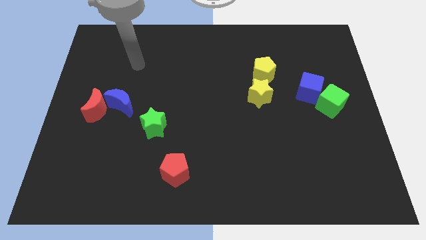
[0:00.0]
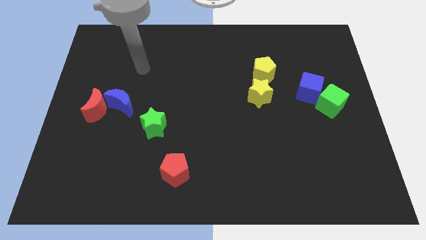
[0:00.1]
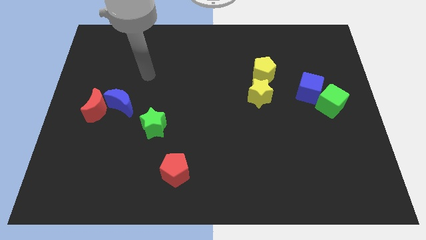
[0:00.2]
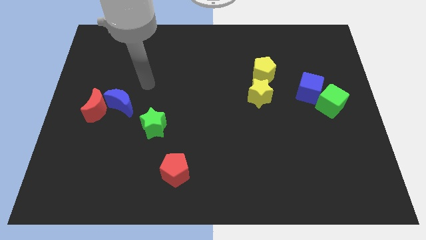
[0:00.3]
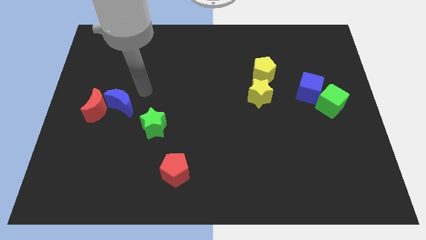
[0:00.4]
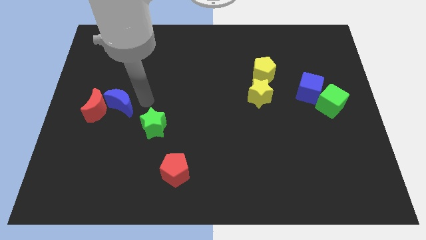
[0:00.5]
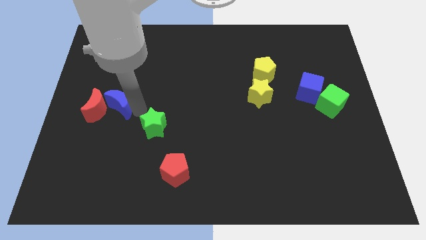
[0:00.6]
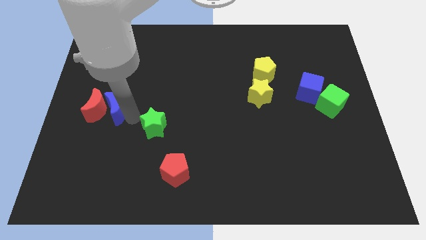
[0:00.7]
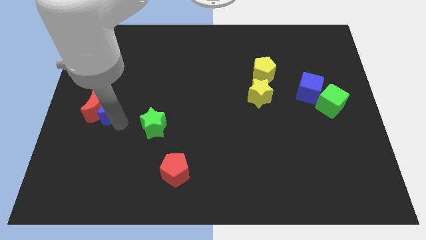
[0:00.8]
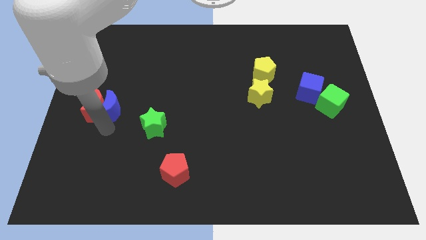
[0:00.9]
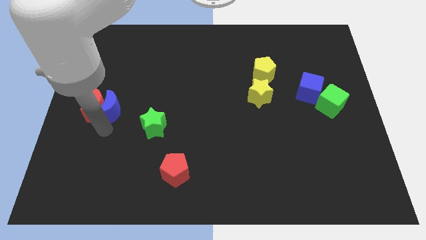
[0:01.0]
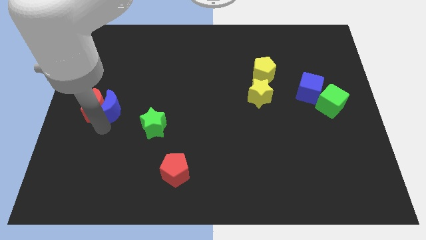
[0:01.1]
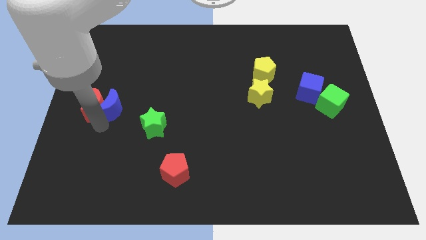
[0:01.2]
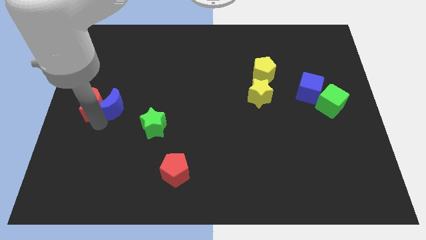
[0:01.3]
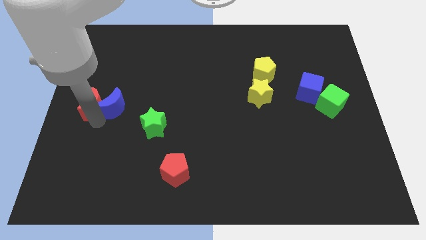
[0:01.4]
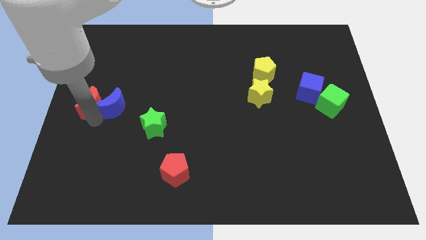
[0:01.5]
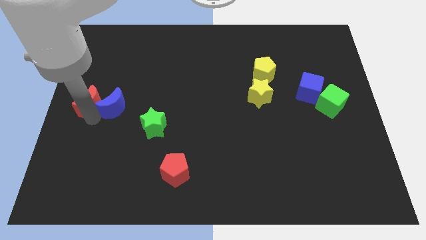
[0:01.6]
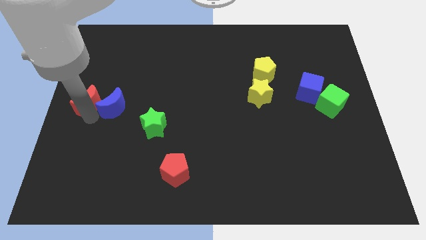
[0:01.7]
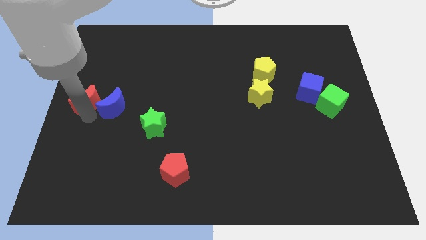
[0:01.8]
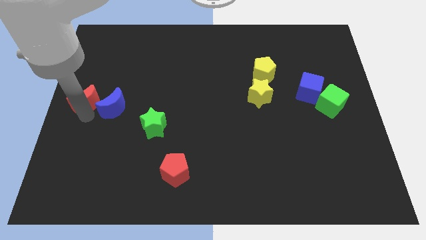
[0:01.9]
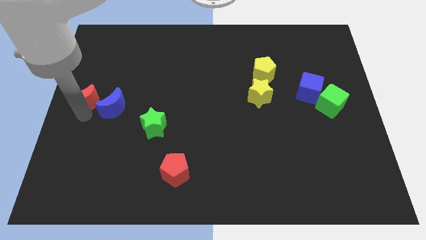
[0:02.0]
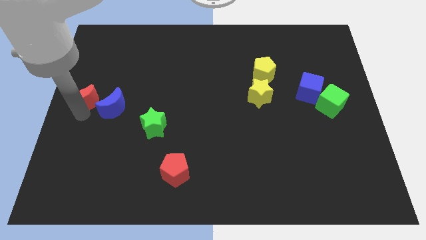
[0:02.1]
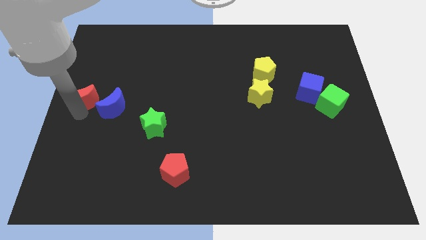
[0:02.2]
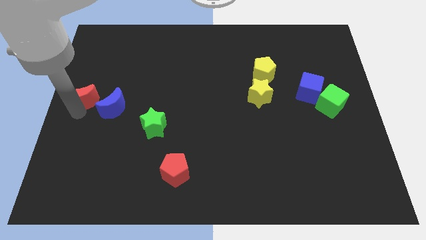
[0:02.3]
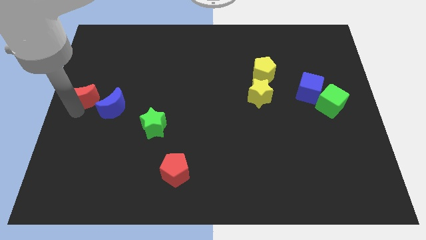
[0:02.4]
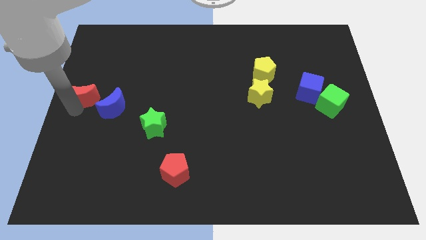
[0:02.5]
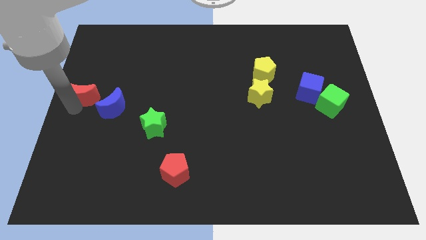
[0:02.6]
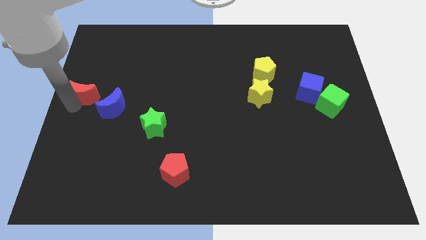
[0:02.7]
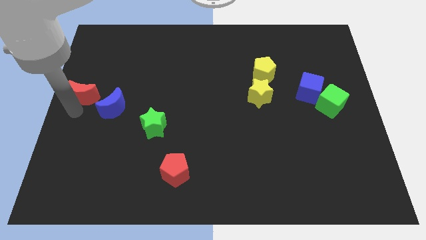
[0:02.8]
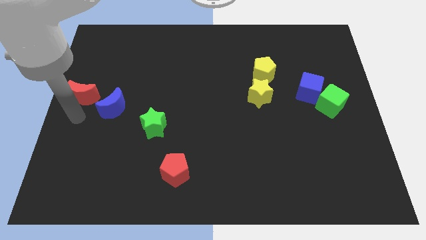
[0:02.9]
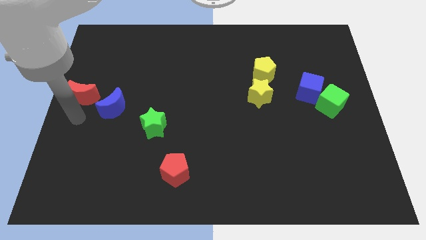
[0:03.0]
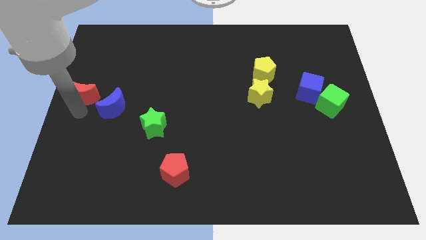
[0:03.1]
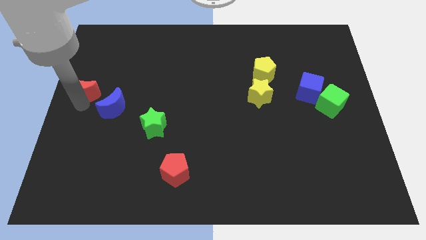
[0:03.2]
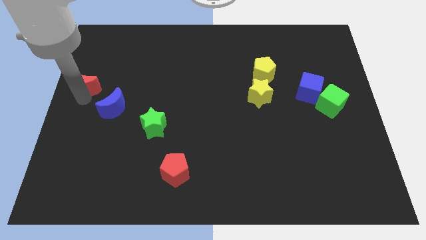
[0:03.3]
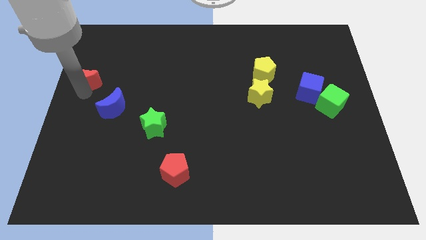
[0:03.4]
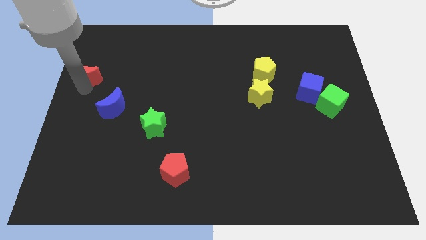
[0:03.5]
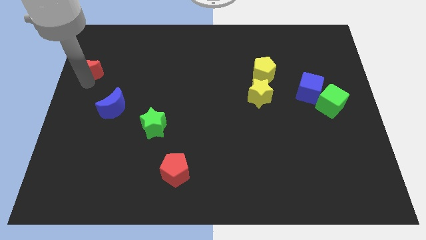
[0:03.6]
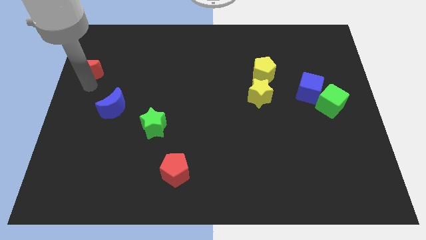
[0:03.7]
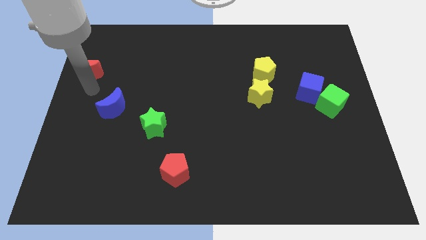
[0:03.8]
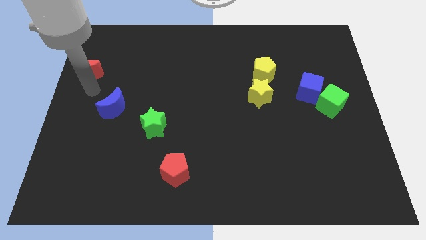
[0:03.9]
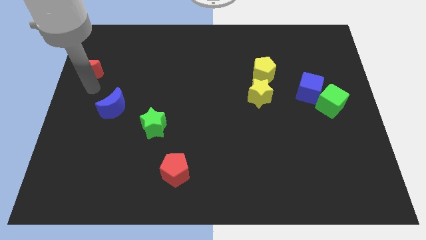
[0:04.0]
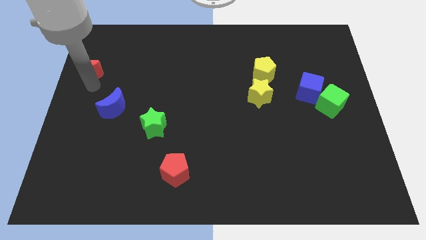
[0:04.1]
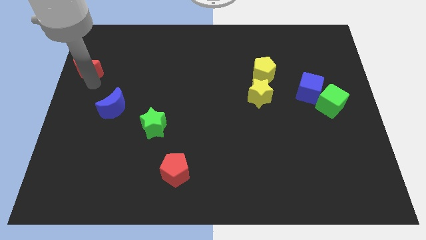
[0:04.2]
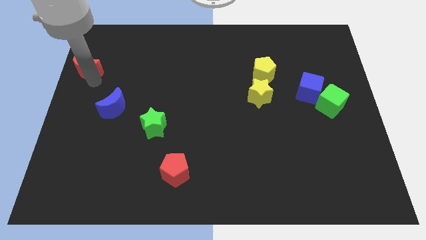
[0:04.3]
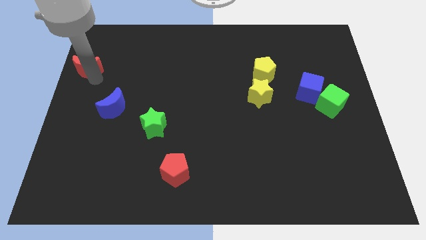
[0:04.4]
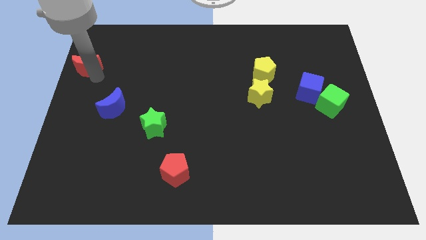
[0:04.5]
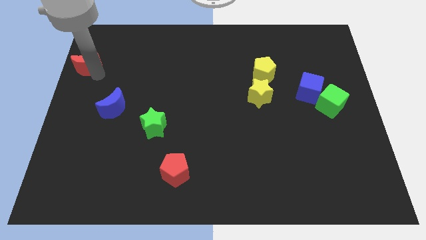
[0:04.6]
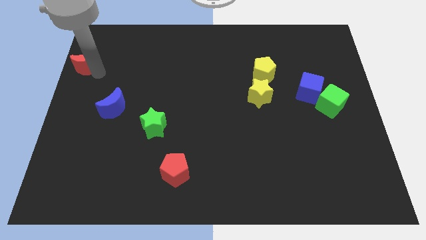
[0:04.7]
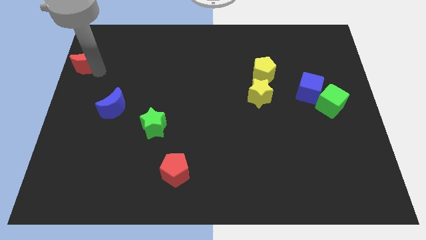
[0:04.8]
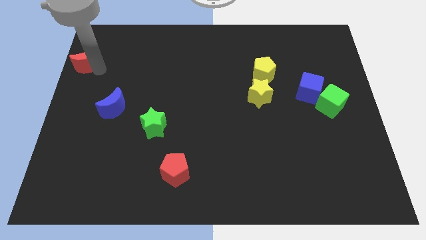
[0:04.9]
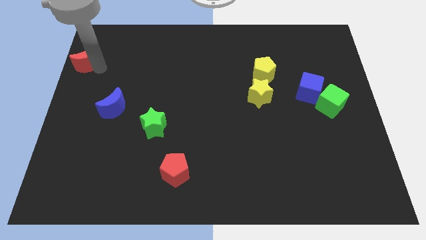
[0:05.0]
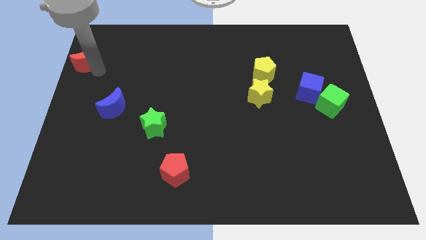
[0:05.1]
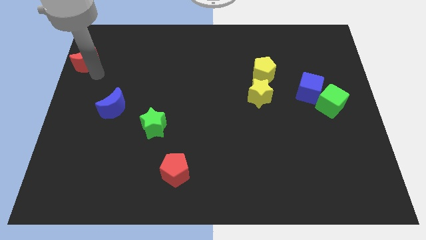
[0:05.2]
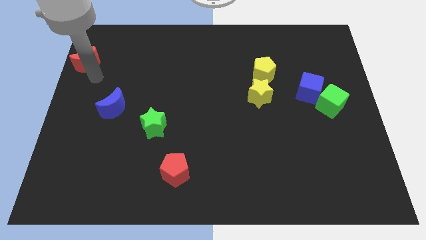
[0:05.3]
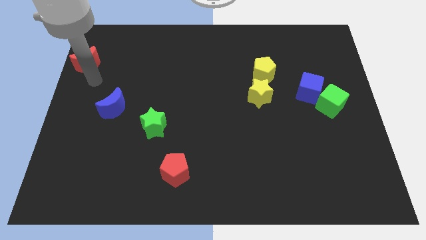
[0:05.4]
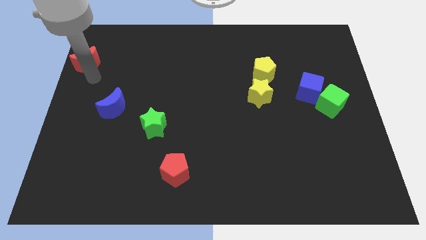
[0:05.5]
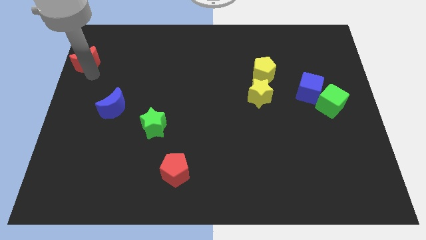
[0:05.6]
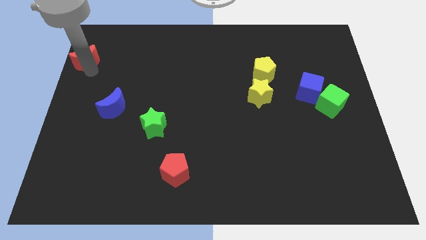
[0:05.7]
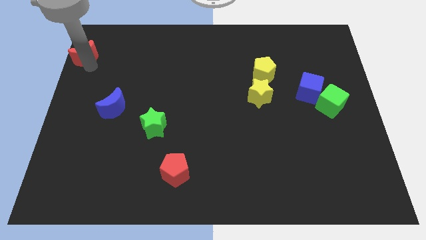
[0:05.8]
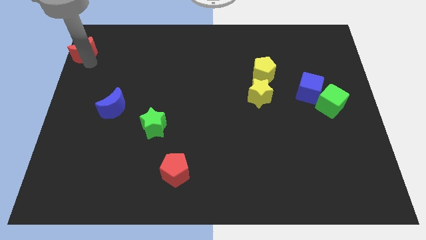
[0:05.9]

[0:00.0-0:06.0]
put the red moon to the top left
